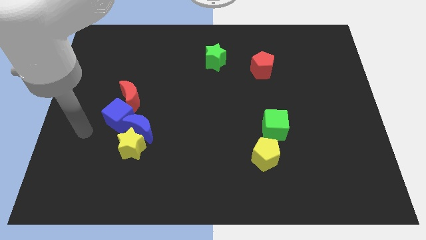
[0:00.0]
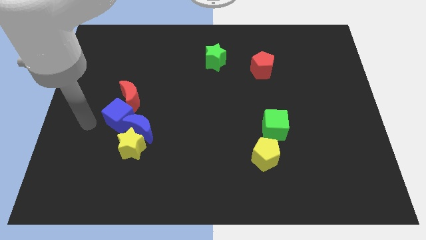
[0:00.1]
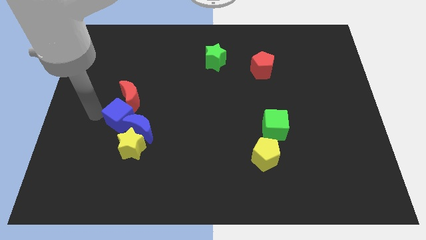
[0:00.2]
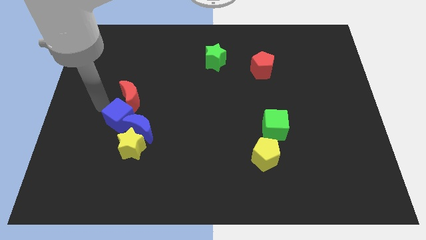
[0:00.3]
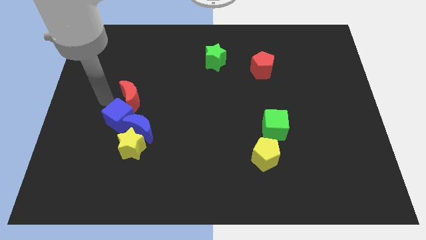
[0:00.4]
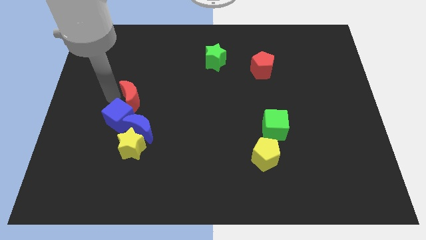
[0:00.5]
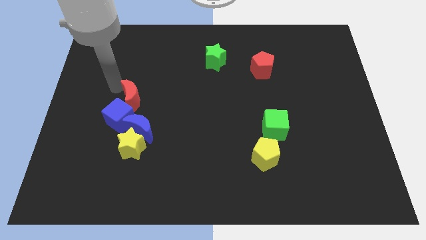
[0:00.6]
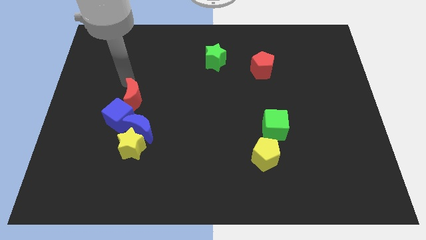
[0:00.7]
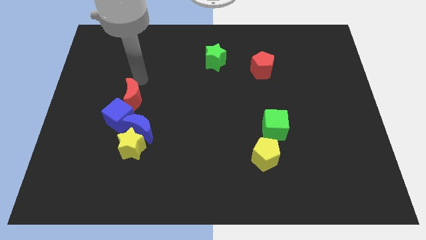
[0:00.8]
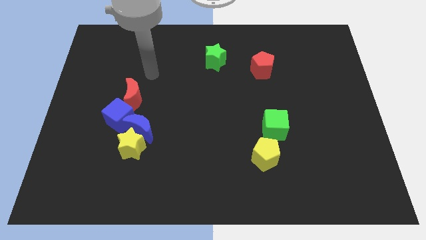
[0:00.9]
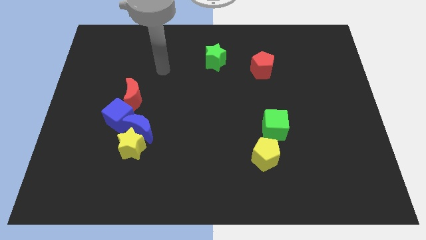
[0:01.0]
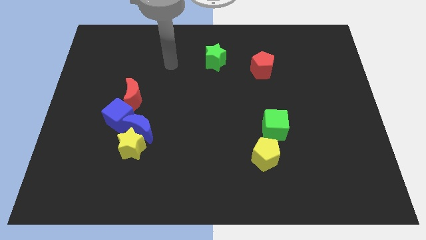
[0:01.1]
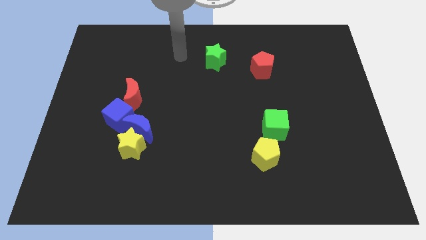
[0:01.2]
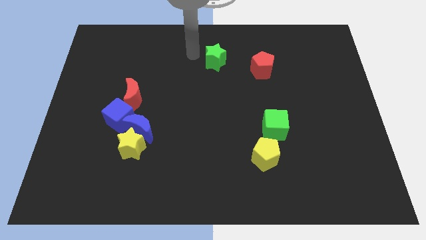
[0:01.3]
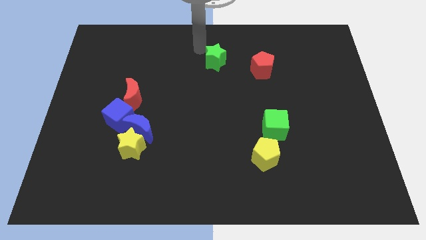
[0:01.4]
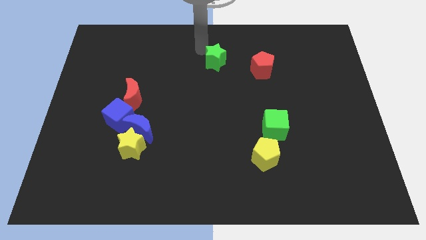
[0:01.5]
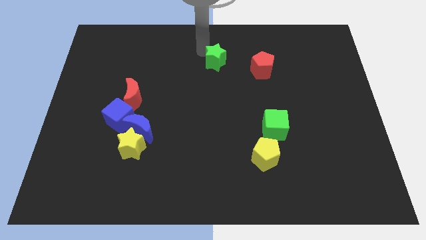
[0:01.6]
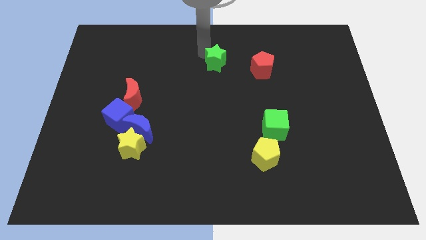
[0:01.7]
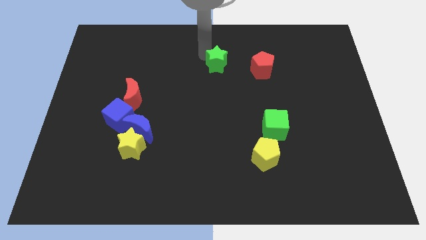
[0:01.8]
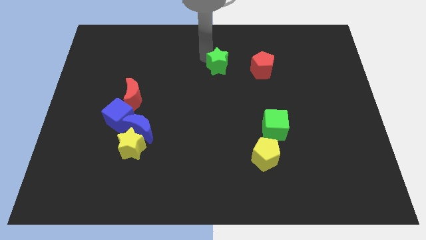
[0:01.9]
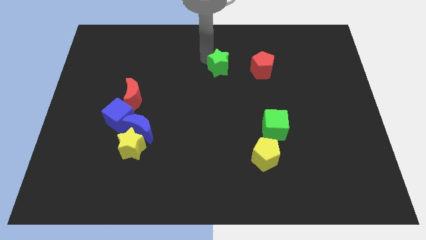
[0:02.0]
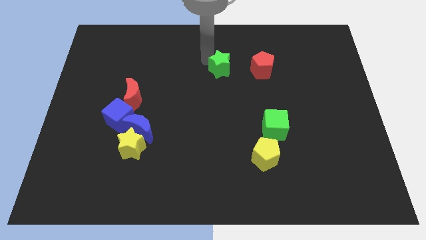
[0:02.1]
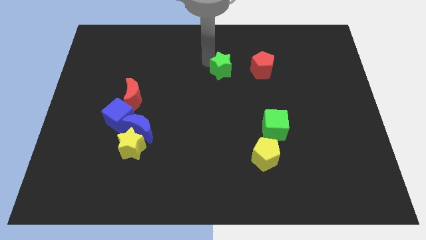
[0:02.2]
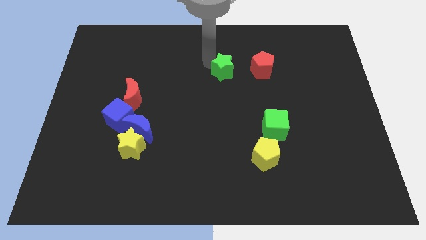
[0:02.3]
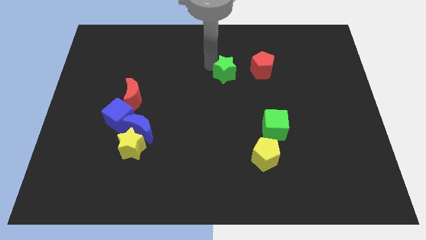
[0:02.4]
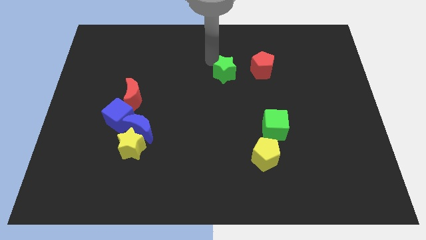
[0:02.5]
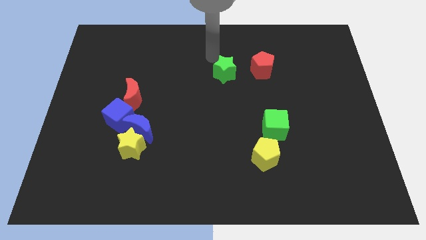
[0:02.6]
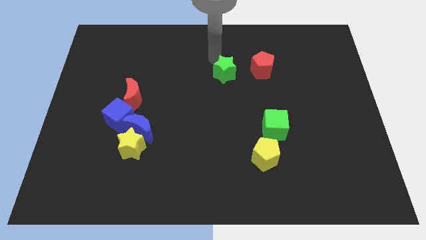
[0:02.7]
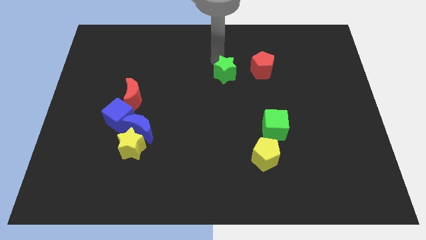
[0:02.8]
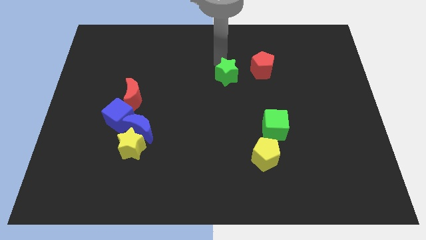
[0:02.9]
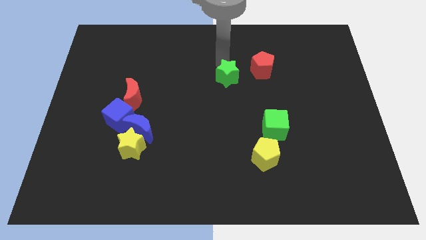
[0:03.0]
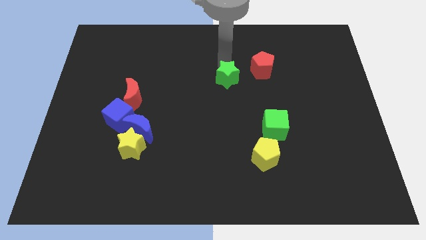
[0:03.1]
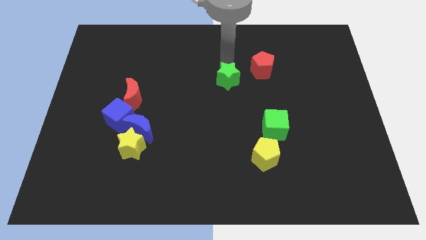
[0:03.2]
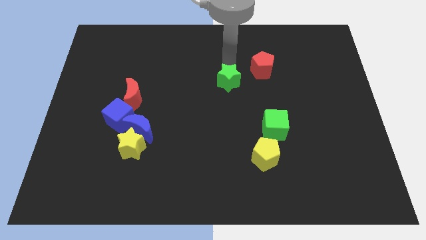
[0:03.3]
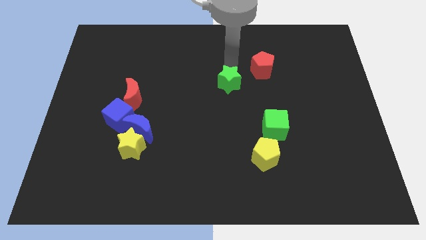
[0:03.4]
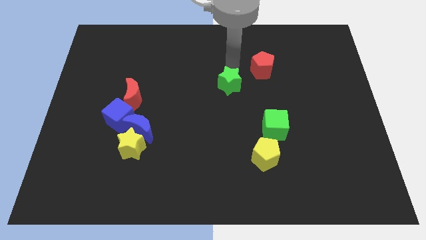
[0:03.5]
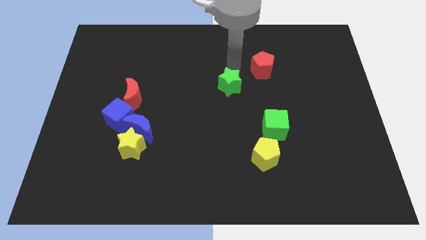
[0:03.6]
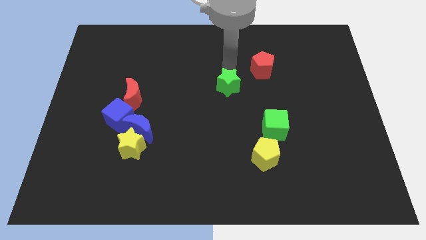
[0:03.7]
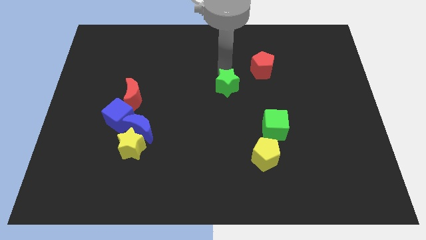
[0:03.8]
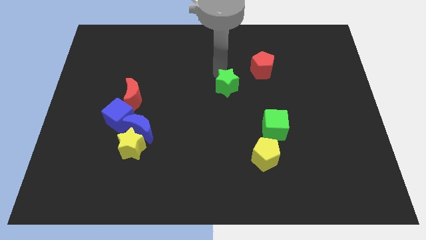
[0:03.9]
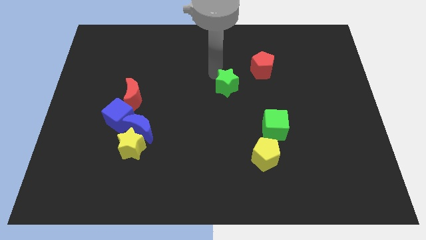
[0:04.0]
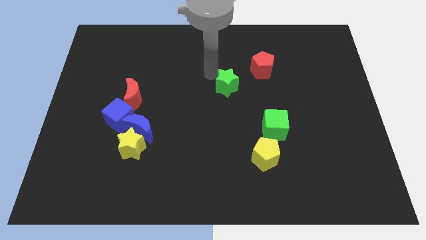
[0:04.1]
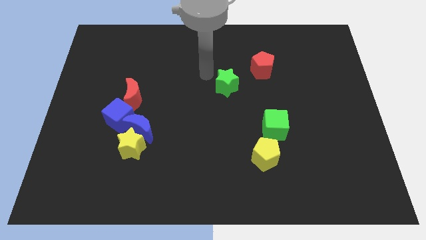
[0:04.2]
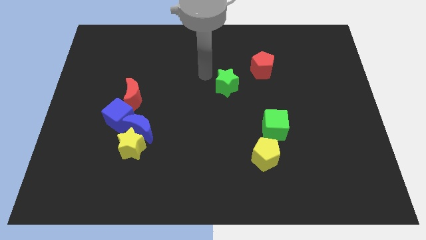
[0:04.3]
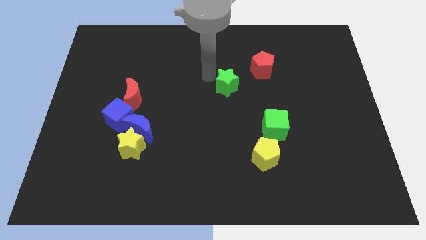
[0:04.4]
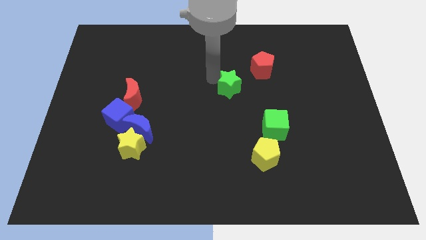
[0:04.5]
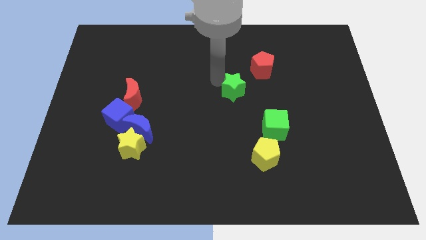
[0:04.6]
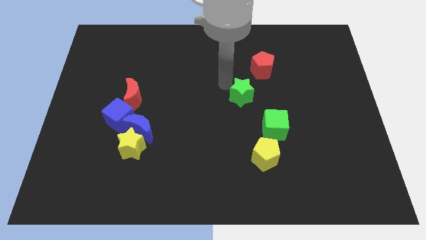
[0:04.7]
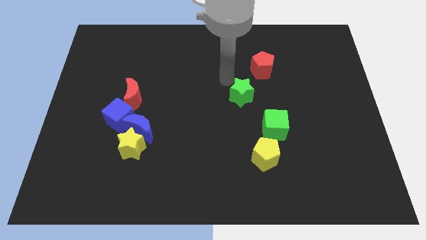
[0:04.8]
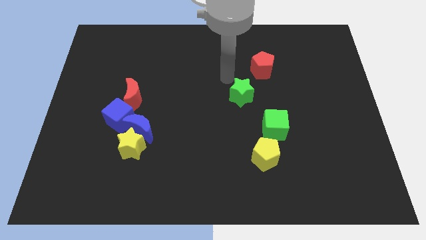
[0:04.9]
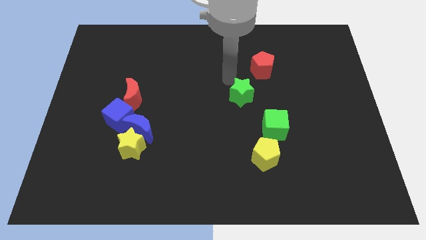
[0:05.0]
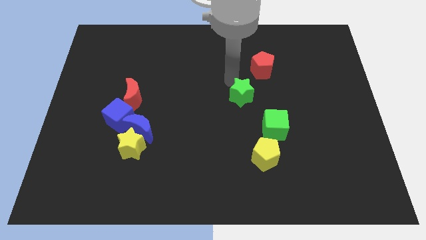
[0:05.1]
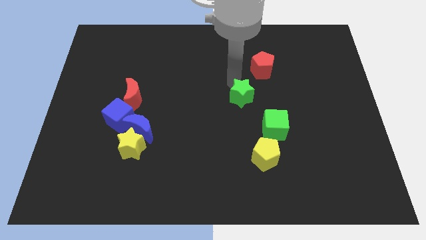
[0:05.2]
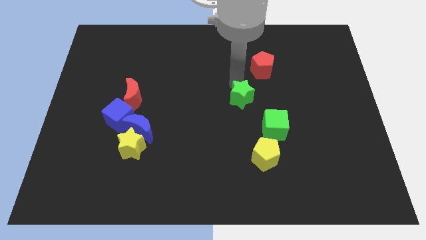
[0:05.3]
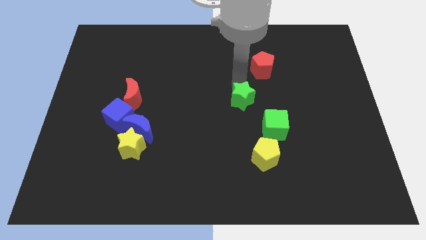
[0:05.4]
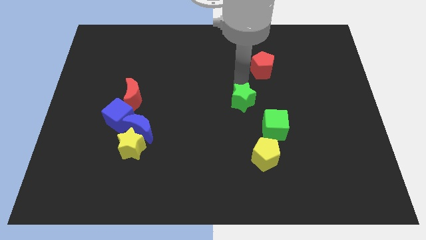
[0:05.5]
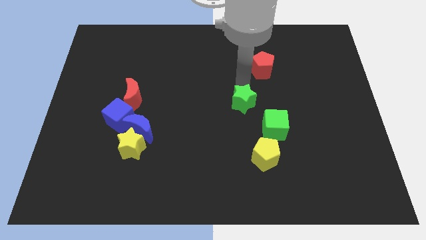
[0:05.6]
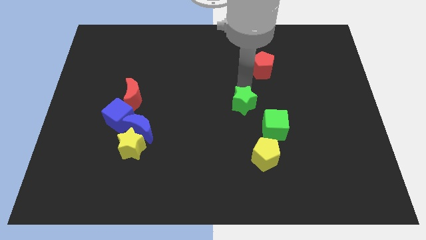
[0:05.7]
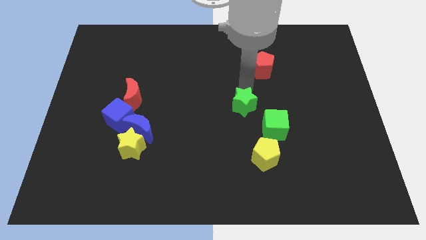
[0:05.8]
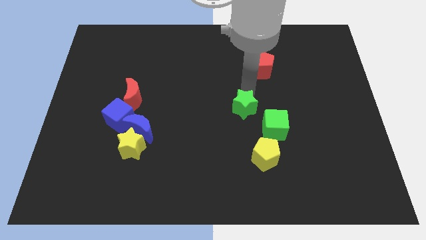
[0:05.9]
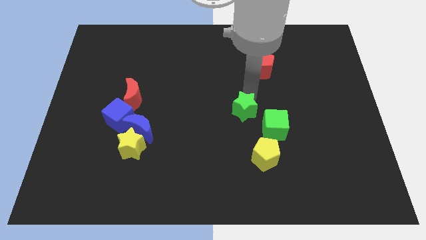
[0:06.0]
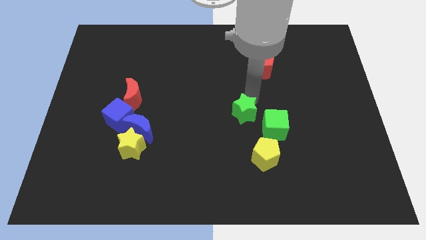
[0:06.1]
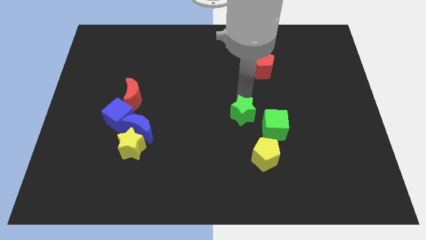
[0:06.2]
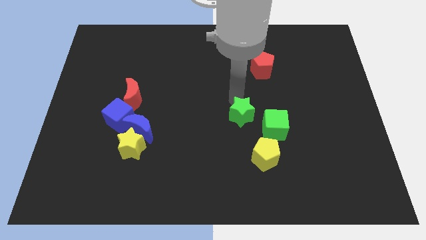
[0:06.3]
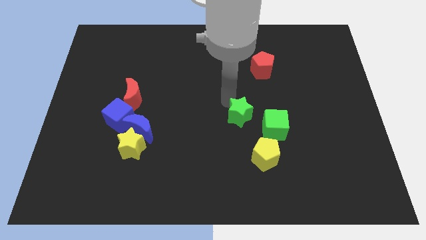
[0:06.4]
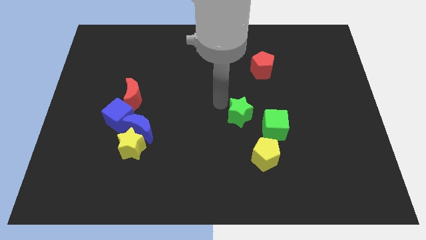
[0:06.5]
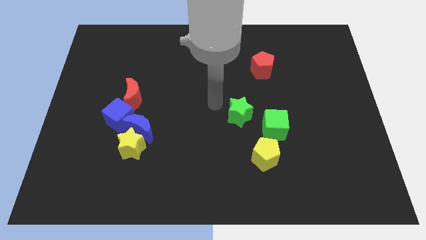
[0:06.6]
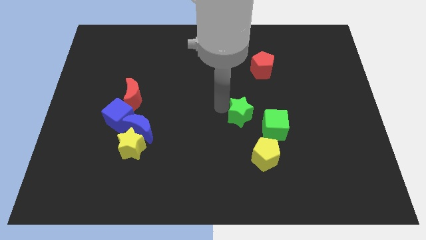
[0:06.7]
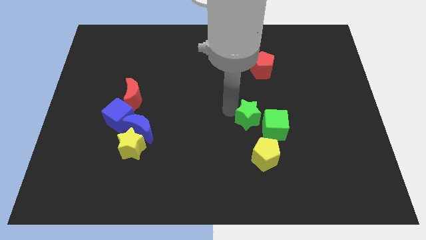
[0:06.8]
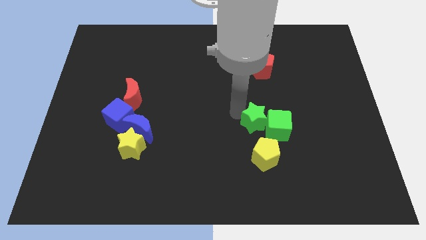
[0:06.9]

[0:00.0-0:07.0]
push the green star to the green cube
